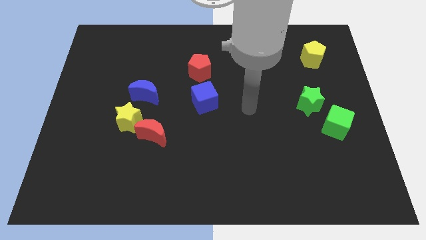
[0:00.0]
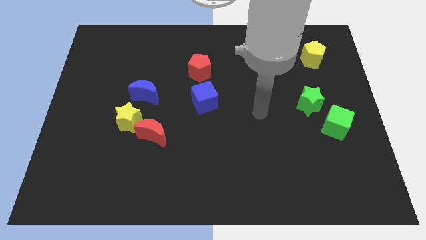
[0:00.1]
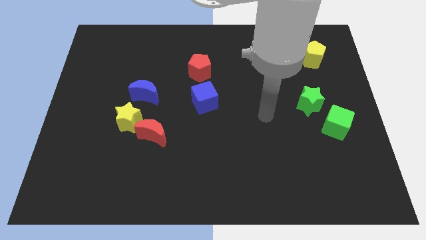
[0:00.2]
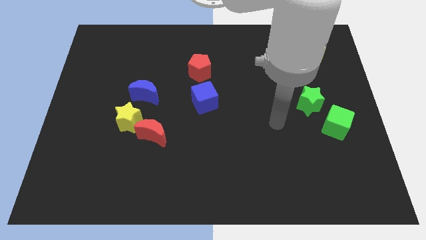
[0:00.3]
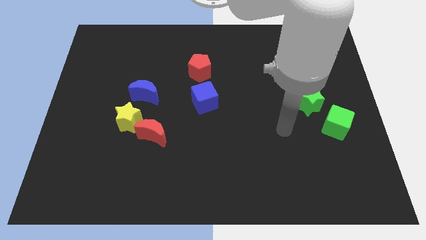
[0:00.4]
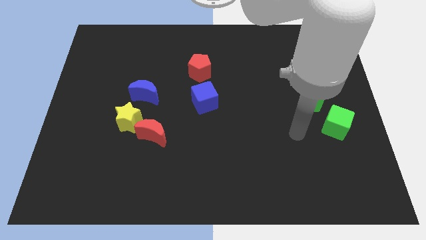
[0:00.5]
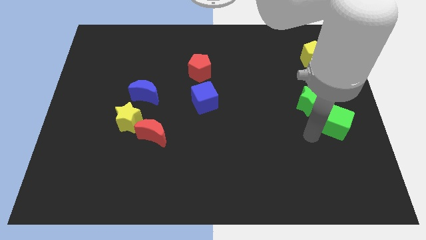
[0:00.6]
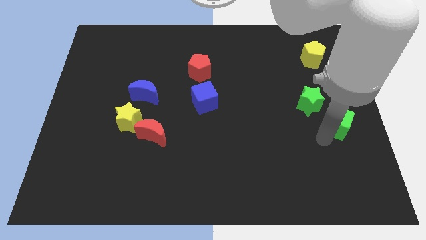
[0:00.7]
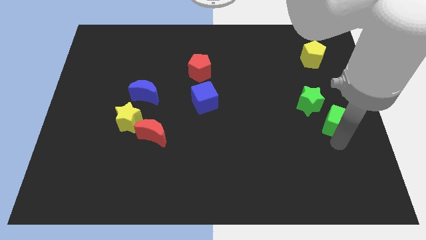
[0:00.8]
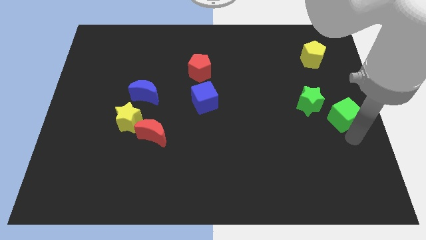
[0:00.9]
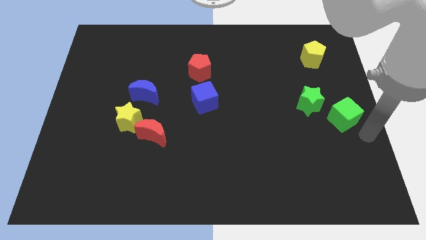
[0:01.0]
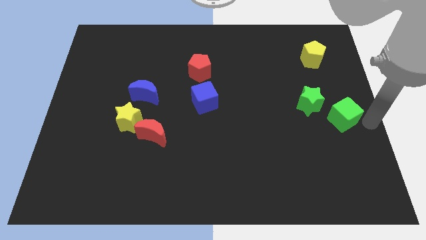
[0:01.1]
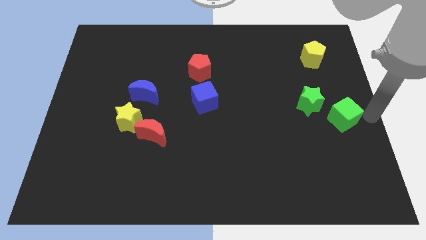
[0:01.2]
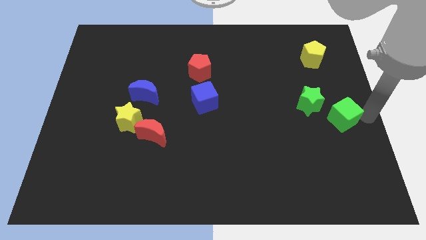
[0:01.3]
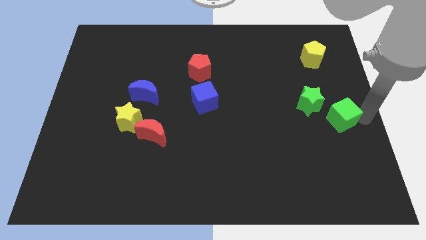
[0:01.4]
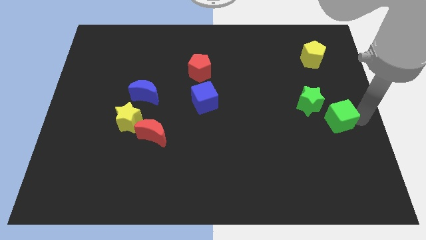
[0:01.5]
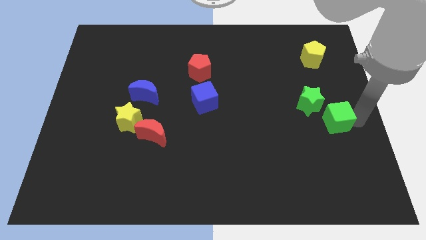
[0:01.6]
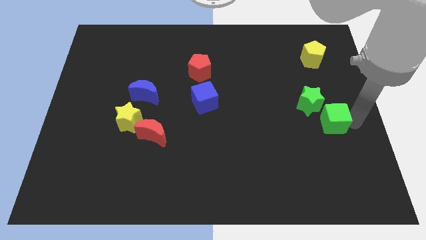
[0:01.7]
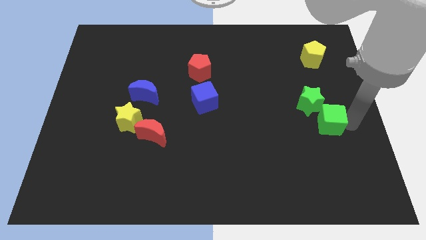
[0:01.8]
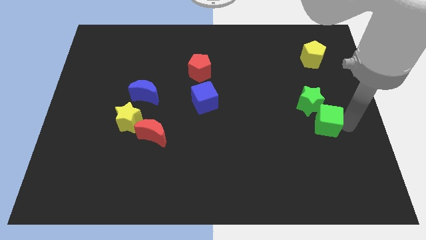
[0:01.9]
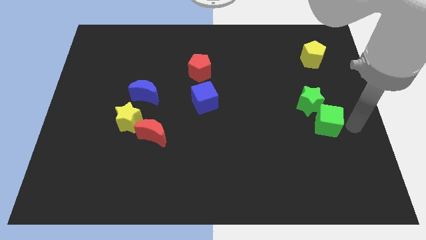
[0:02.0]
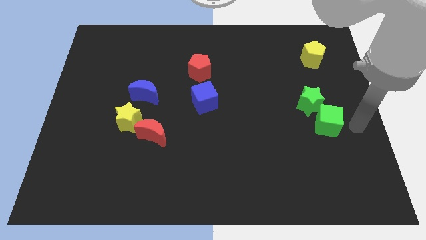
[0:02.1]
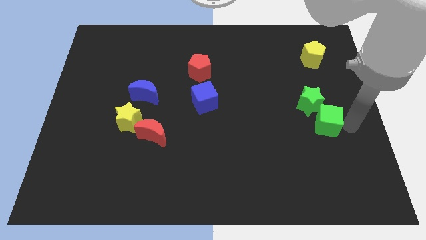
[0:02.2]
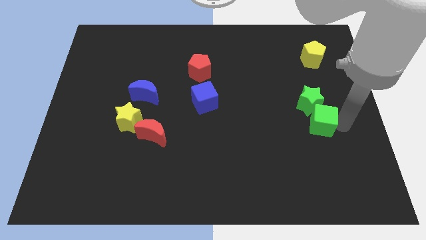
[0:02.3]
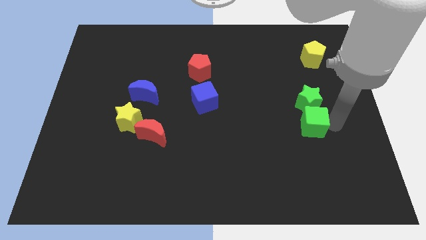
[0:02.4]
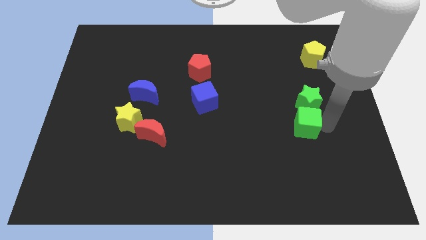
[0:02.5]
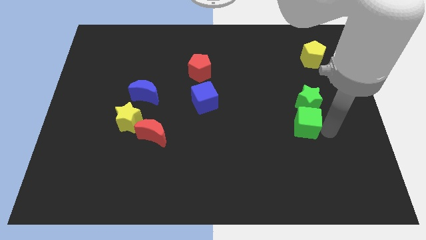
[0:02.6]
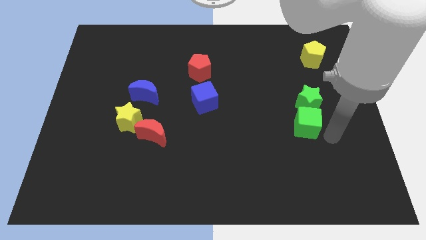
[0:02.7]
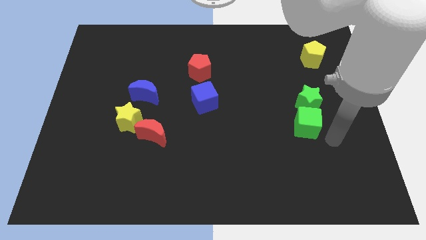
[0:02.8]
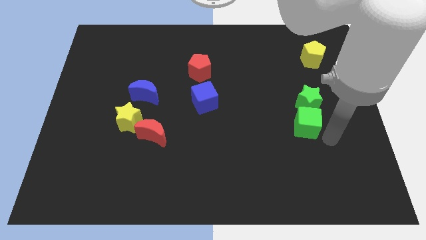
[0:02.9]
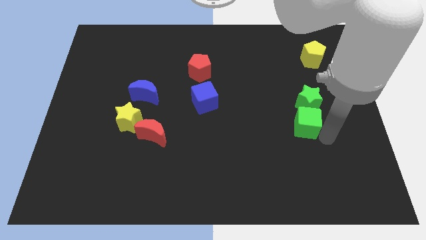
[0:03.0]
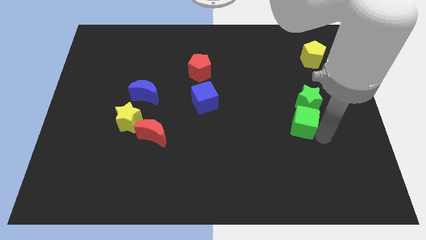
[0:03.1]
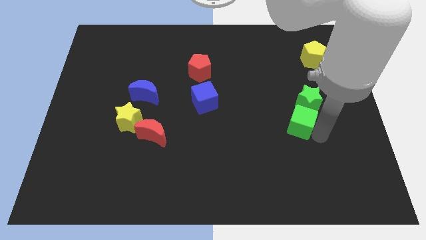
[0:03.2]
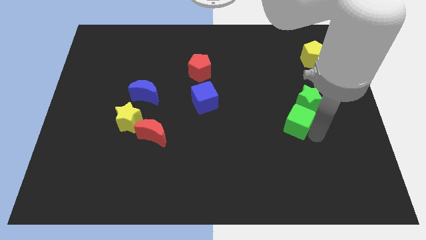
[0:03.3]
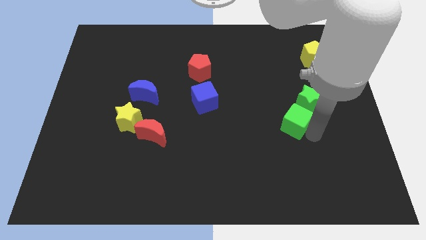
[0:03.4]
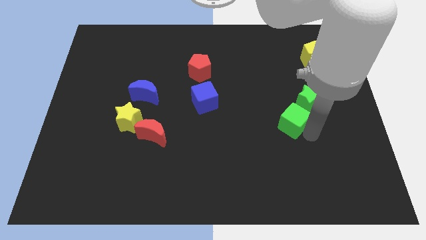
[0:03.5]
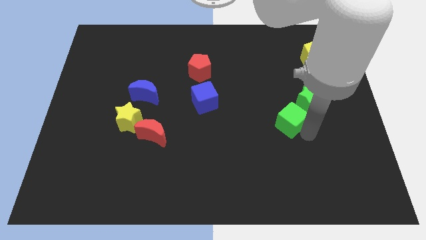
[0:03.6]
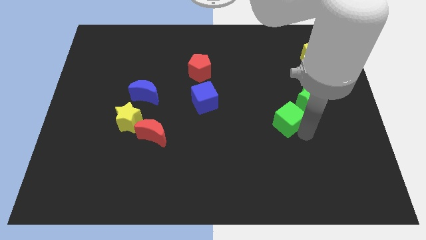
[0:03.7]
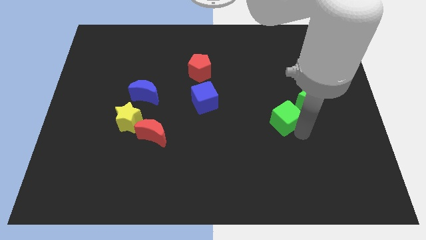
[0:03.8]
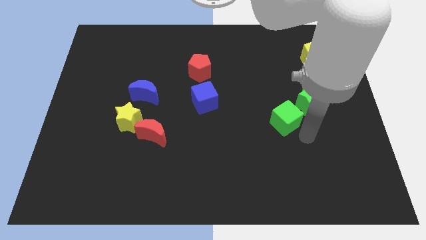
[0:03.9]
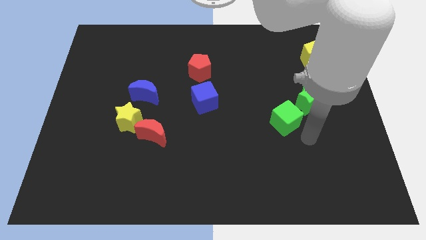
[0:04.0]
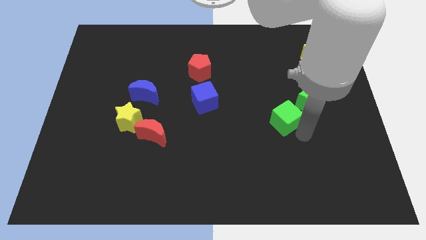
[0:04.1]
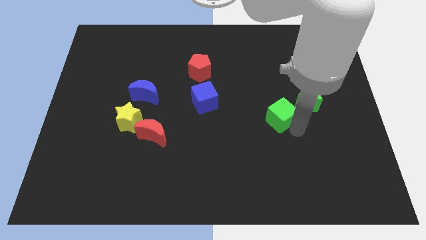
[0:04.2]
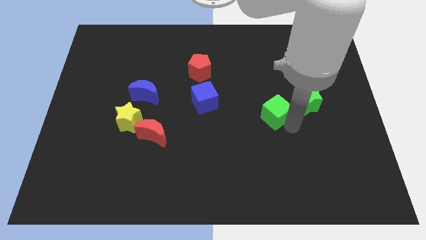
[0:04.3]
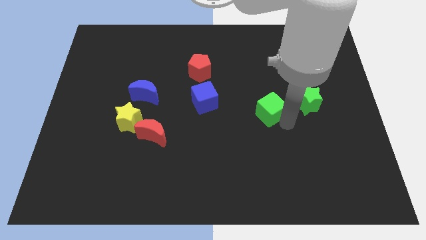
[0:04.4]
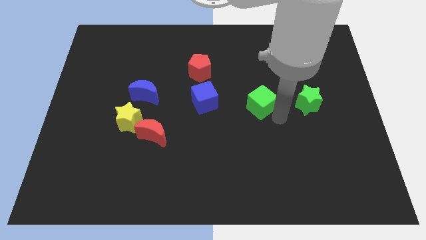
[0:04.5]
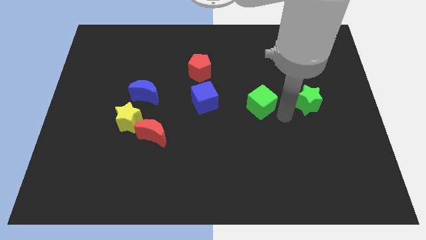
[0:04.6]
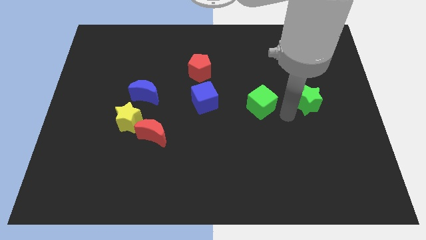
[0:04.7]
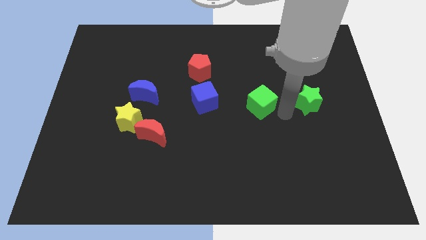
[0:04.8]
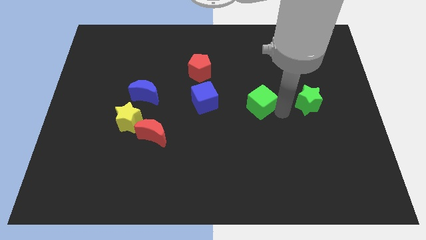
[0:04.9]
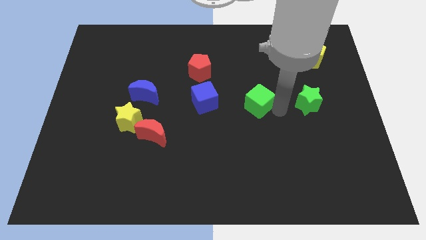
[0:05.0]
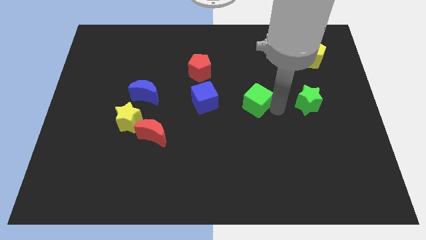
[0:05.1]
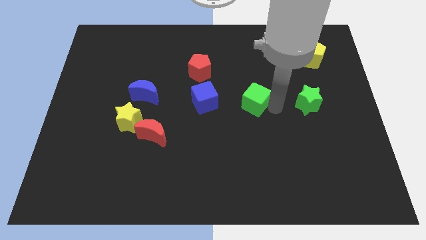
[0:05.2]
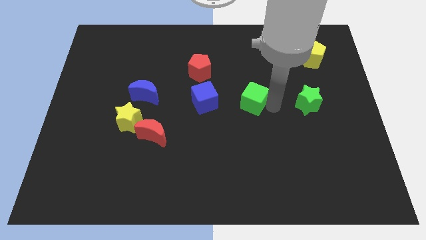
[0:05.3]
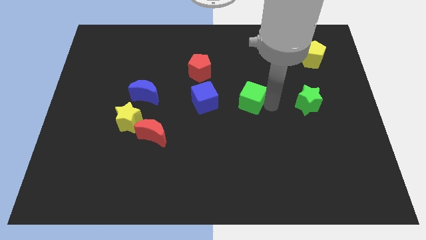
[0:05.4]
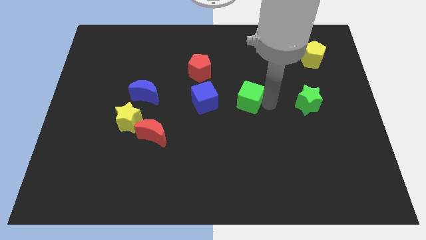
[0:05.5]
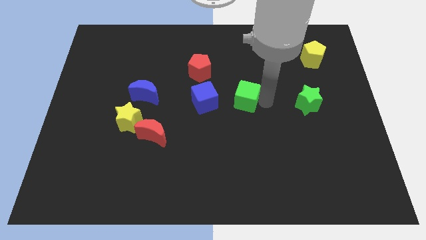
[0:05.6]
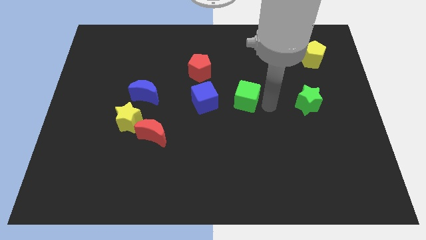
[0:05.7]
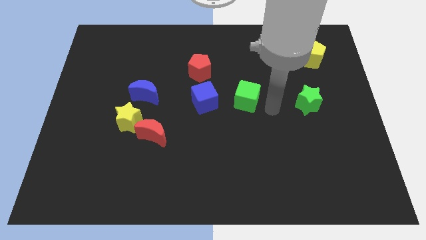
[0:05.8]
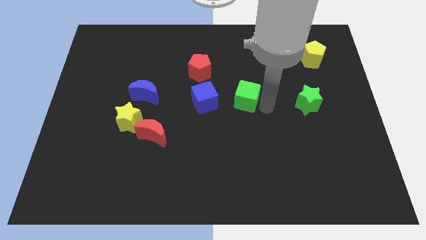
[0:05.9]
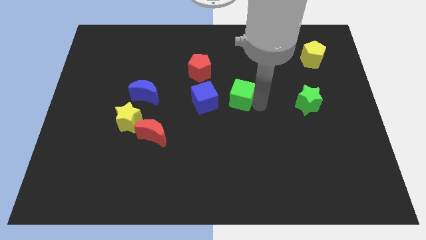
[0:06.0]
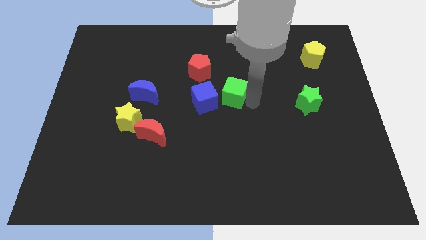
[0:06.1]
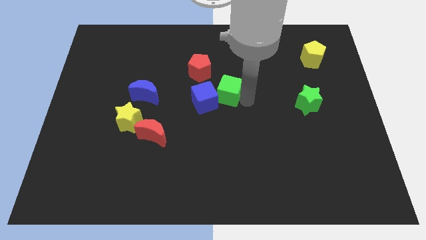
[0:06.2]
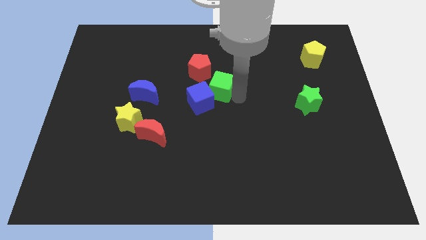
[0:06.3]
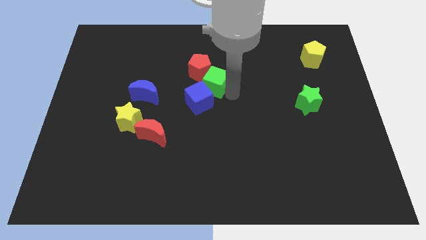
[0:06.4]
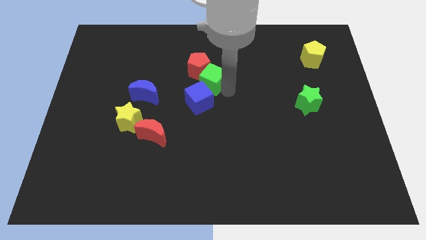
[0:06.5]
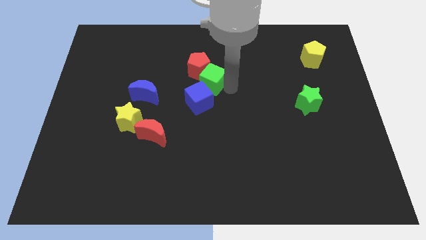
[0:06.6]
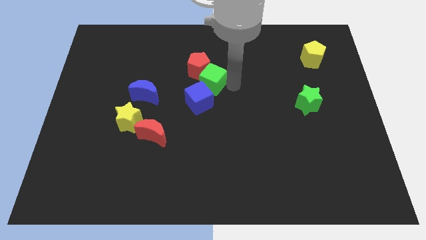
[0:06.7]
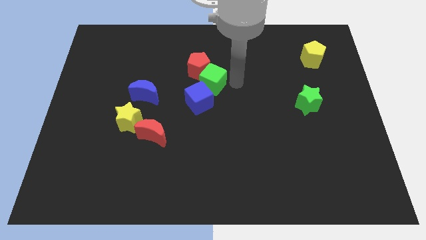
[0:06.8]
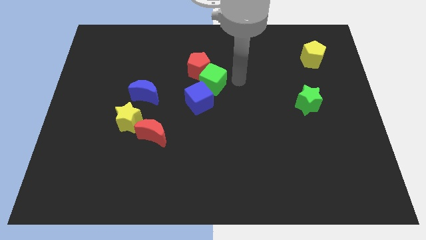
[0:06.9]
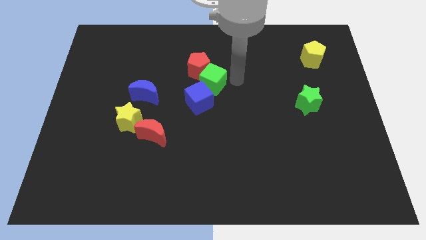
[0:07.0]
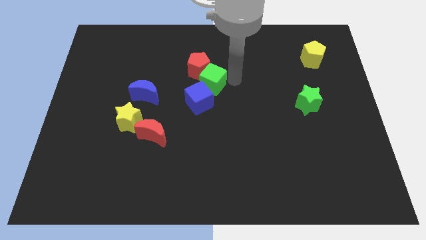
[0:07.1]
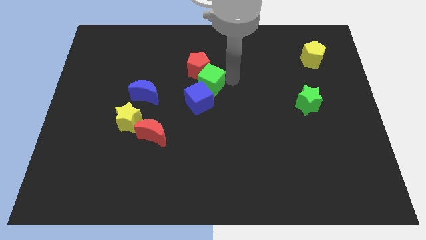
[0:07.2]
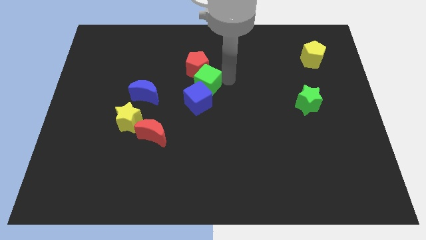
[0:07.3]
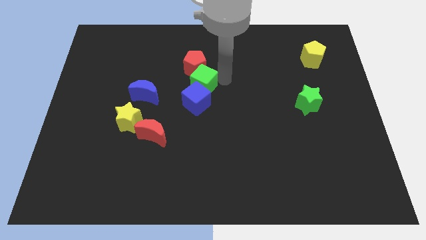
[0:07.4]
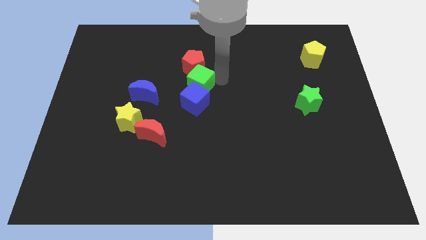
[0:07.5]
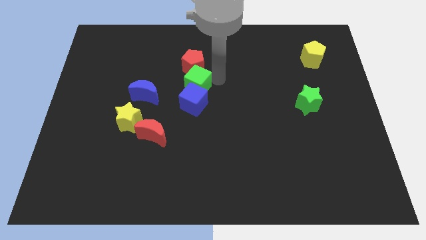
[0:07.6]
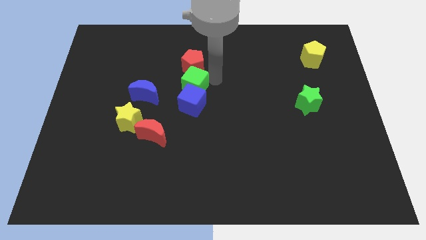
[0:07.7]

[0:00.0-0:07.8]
move the green cube to the bottom left of the red pentagon
